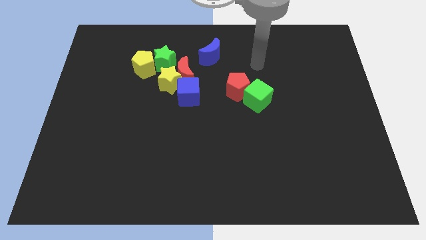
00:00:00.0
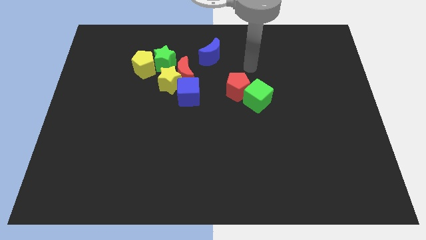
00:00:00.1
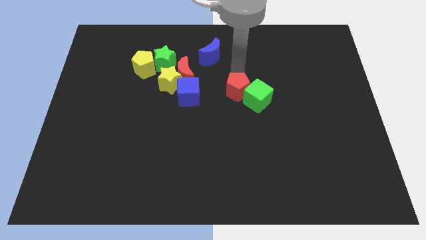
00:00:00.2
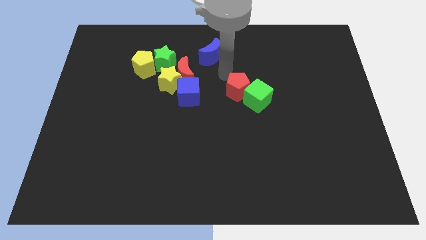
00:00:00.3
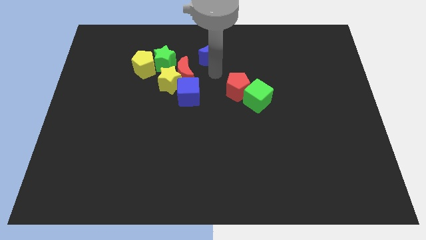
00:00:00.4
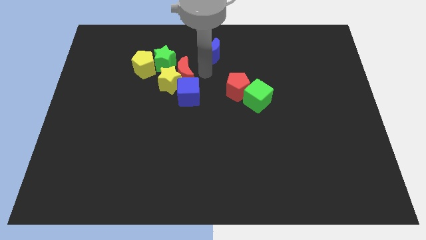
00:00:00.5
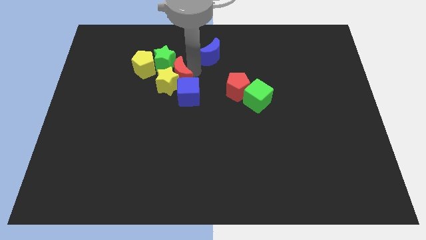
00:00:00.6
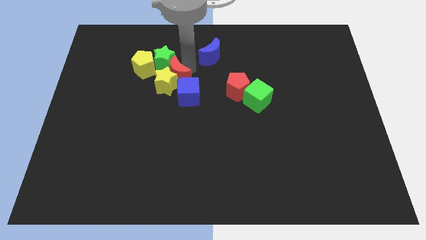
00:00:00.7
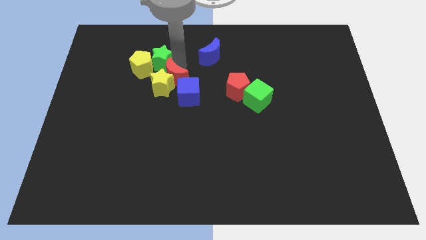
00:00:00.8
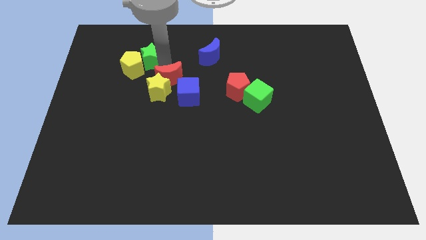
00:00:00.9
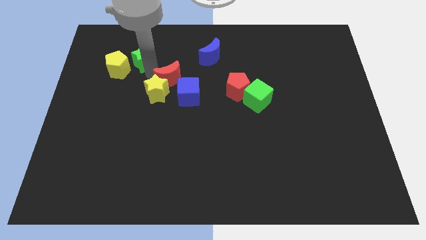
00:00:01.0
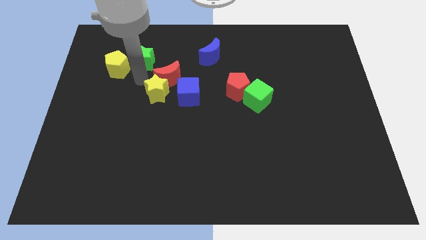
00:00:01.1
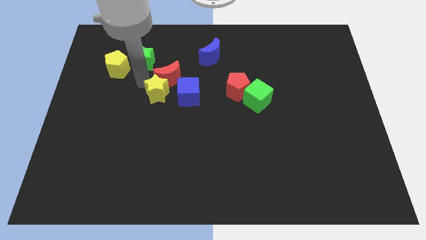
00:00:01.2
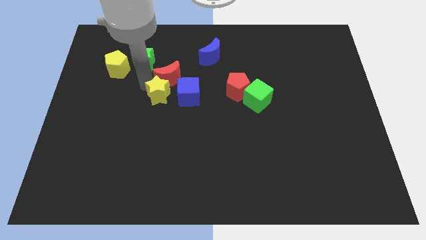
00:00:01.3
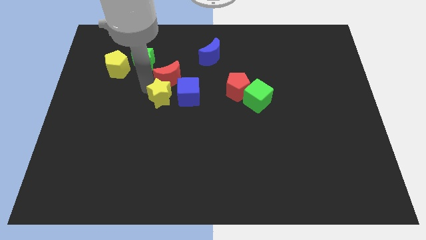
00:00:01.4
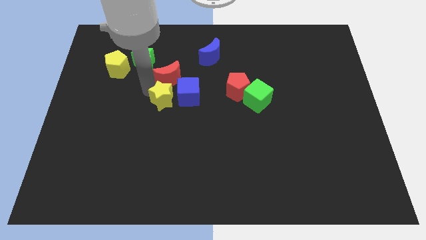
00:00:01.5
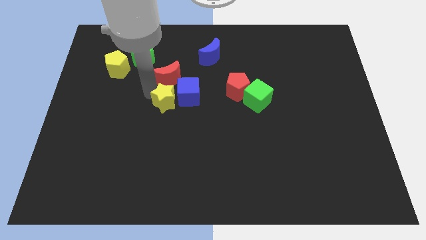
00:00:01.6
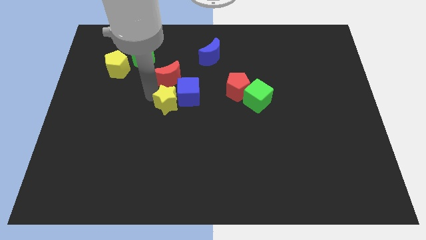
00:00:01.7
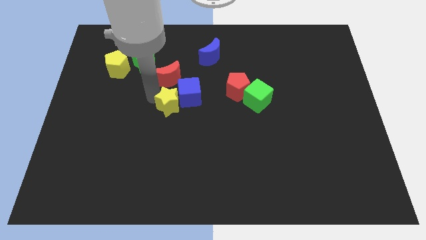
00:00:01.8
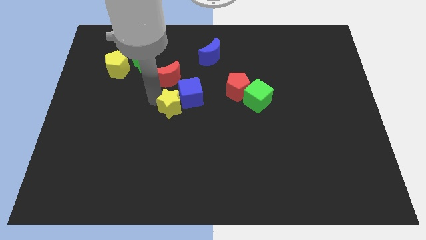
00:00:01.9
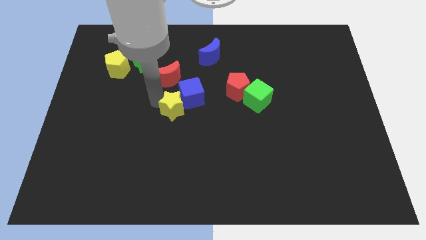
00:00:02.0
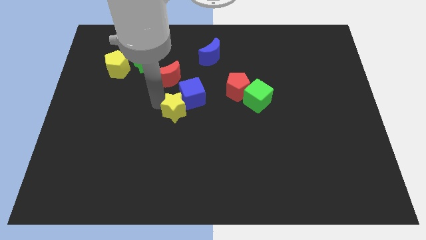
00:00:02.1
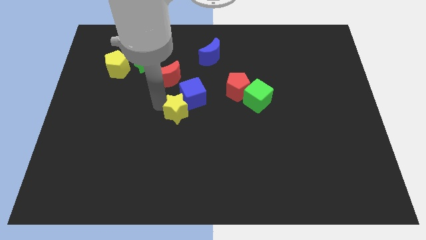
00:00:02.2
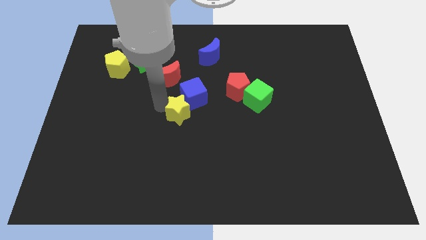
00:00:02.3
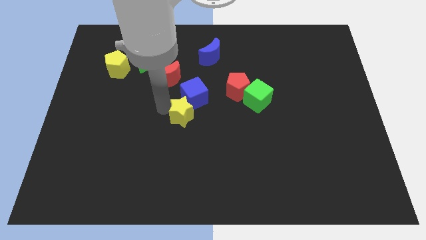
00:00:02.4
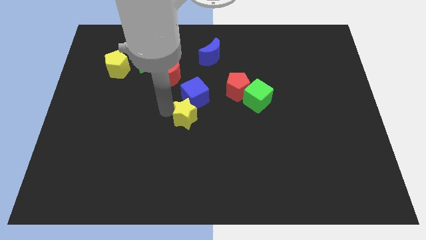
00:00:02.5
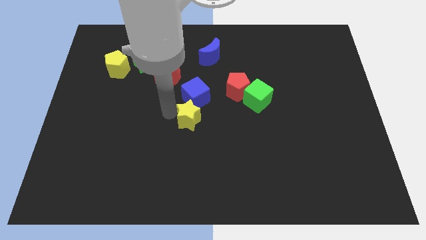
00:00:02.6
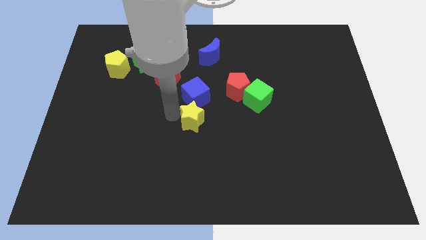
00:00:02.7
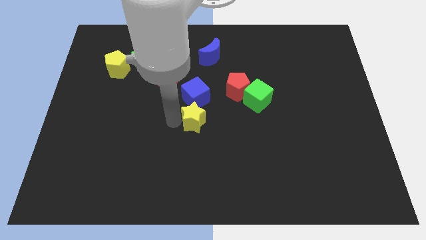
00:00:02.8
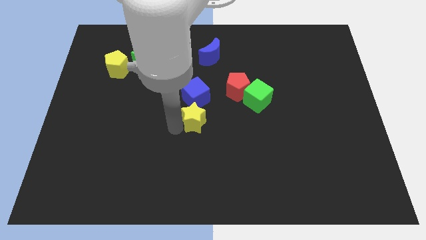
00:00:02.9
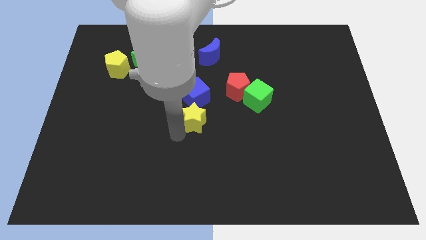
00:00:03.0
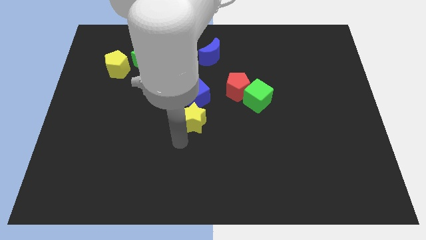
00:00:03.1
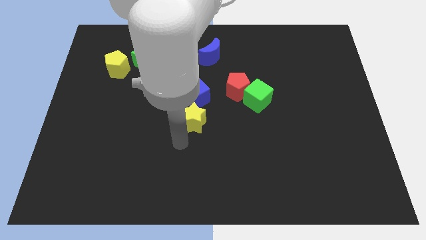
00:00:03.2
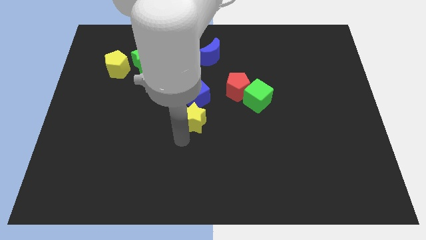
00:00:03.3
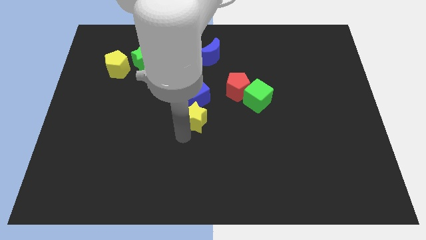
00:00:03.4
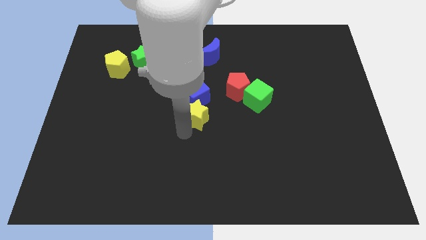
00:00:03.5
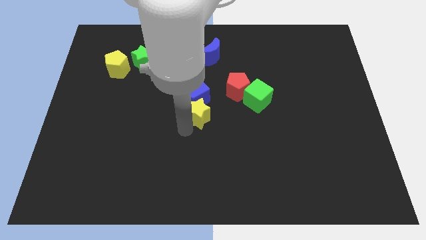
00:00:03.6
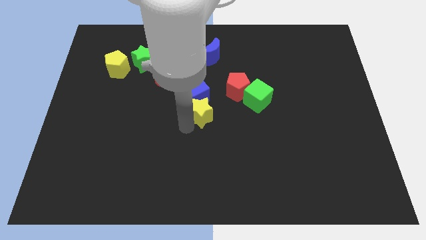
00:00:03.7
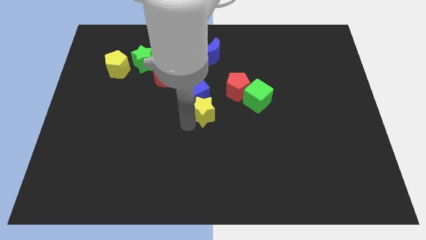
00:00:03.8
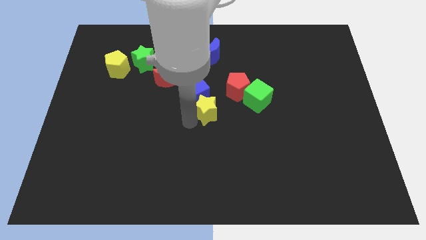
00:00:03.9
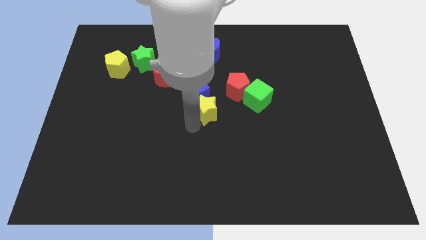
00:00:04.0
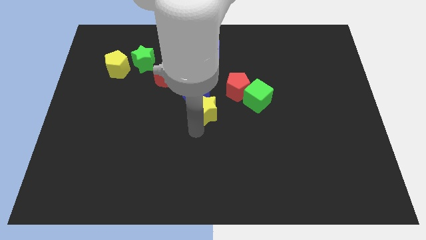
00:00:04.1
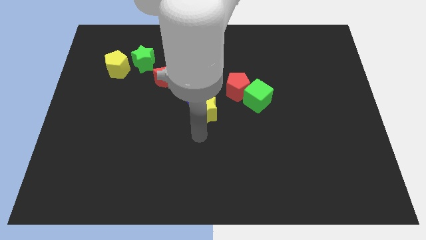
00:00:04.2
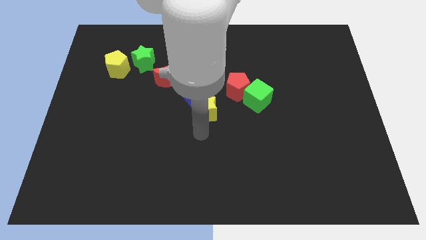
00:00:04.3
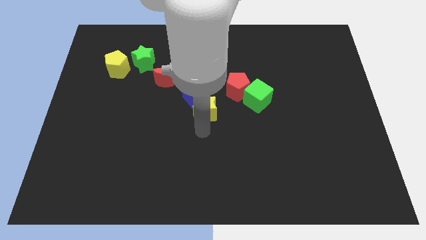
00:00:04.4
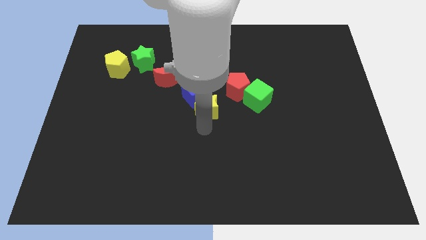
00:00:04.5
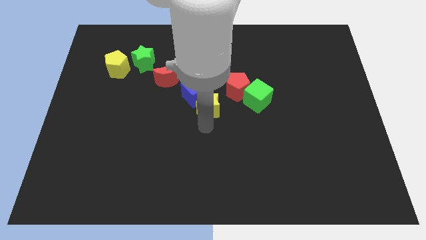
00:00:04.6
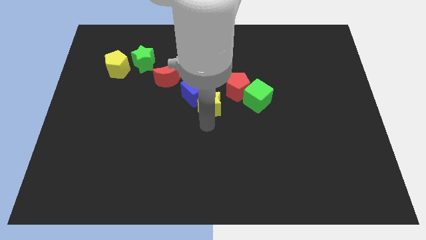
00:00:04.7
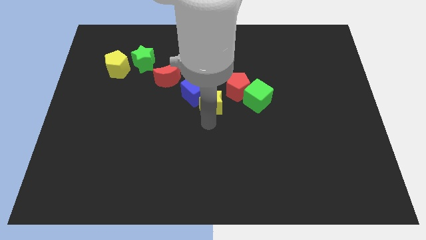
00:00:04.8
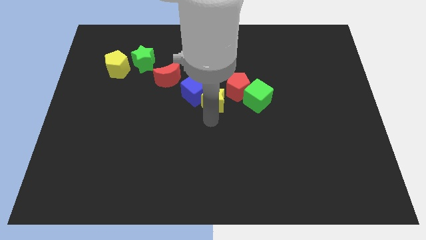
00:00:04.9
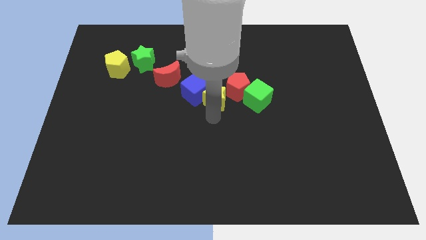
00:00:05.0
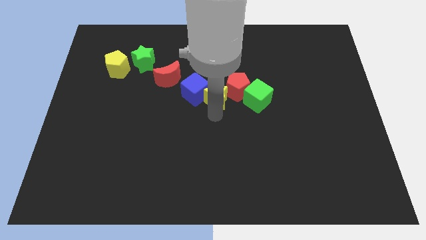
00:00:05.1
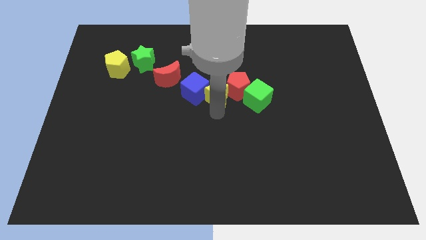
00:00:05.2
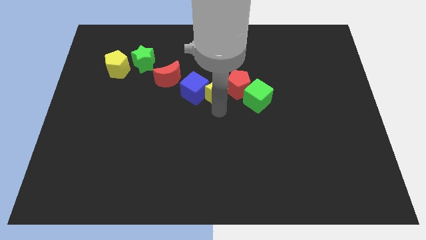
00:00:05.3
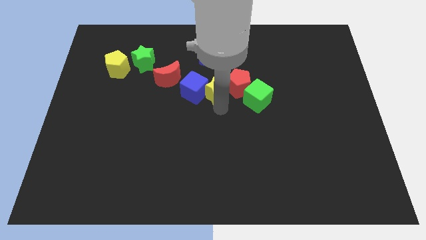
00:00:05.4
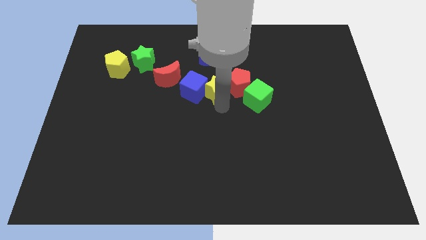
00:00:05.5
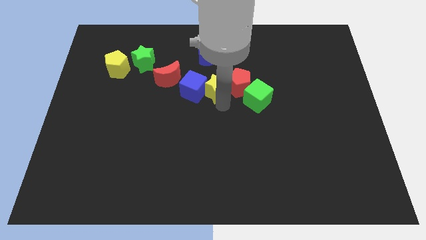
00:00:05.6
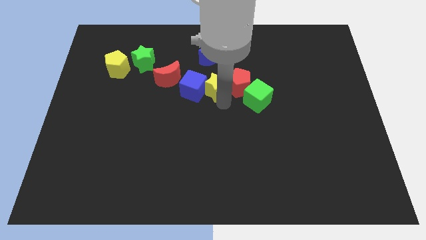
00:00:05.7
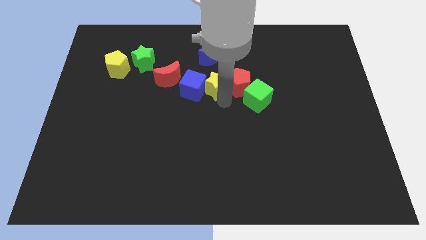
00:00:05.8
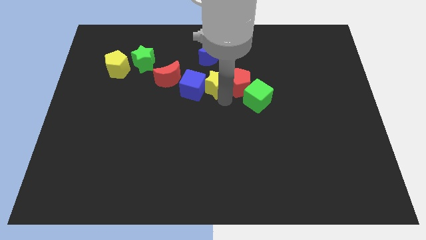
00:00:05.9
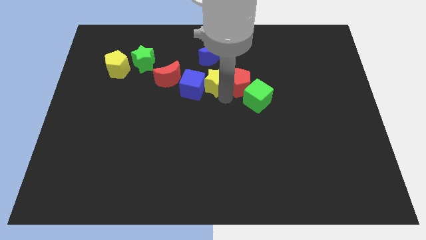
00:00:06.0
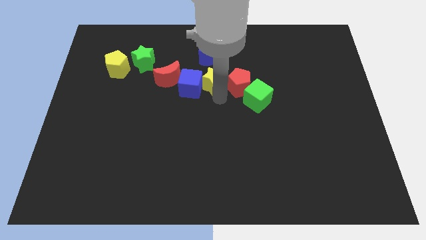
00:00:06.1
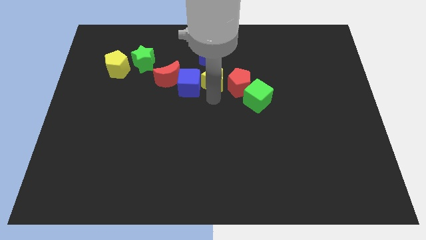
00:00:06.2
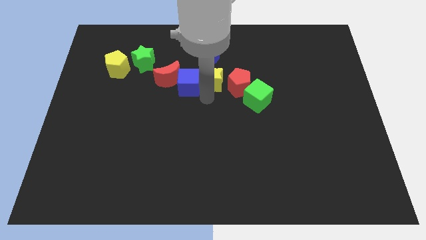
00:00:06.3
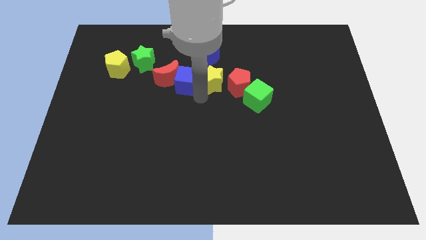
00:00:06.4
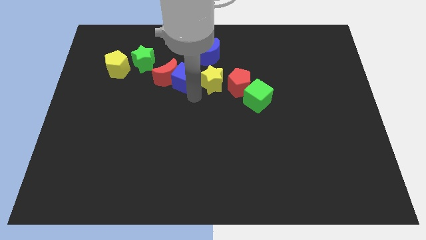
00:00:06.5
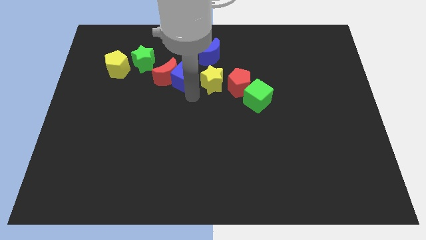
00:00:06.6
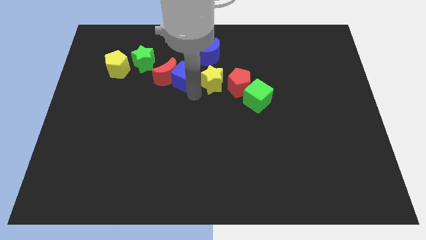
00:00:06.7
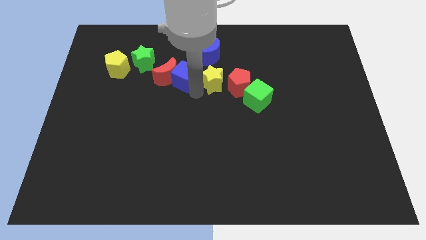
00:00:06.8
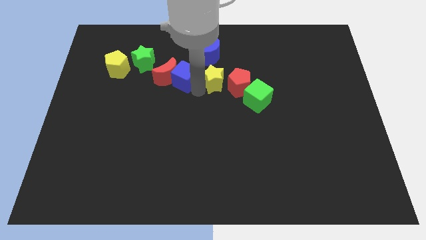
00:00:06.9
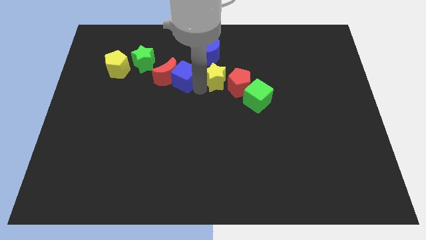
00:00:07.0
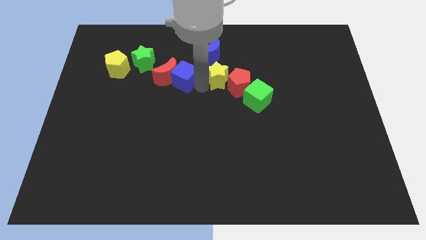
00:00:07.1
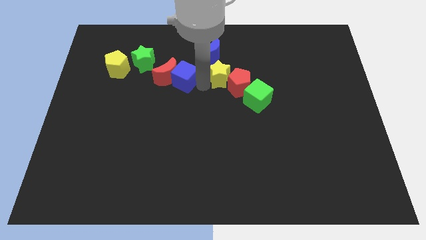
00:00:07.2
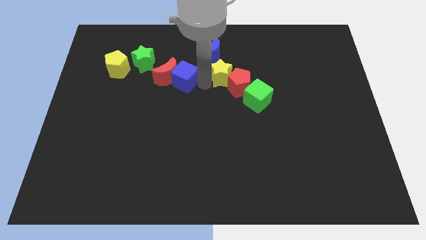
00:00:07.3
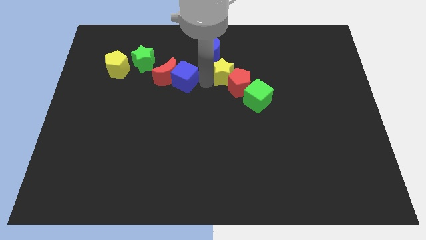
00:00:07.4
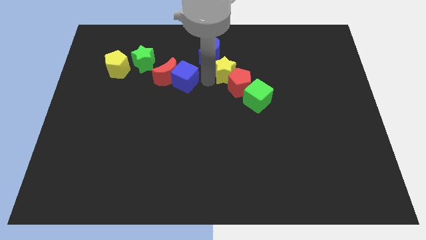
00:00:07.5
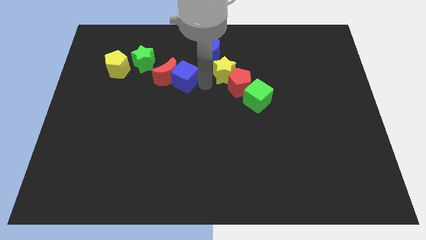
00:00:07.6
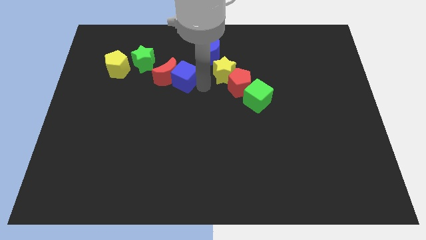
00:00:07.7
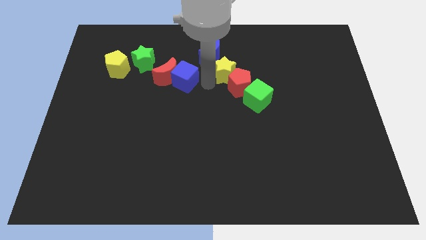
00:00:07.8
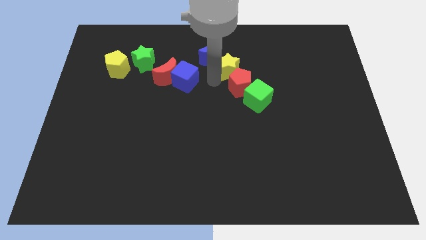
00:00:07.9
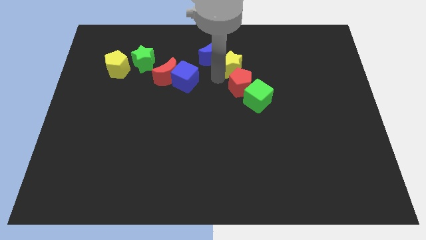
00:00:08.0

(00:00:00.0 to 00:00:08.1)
move the yellow star to the right side of the blue moon
